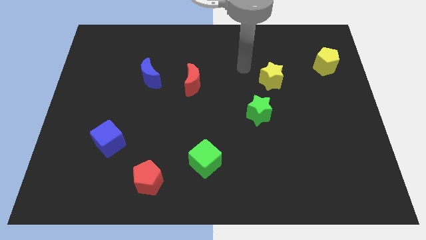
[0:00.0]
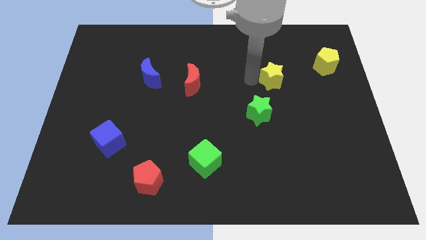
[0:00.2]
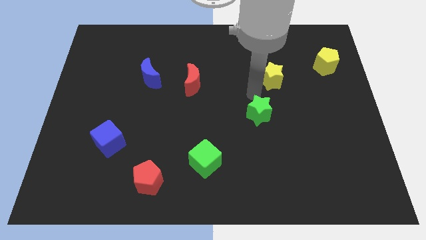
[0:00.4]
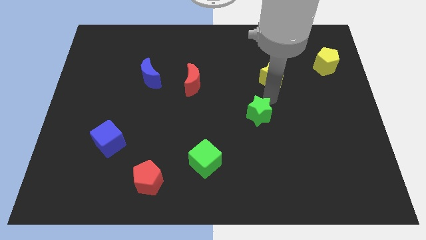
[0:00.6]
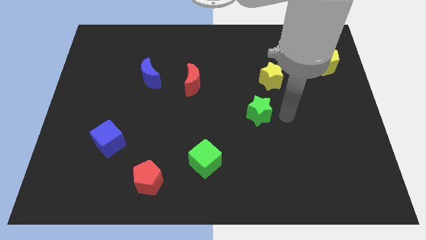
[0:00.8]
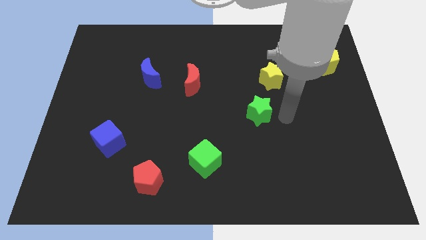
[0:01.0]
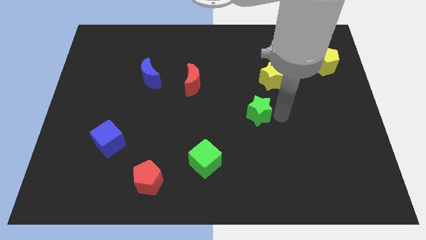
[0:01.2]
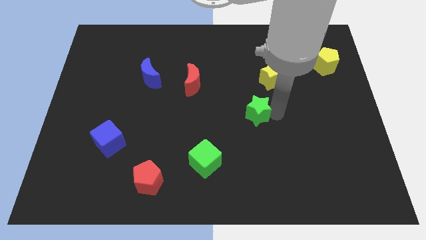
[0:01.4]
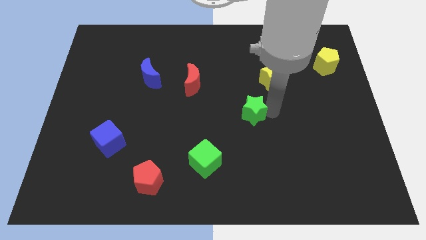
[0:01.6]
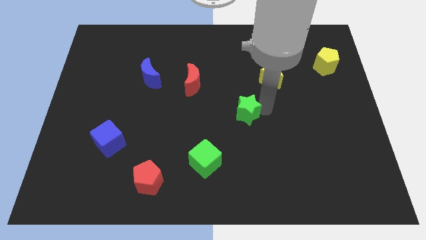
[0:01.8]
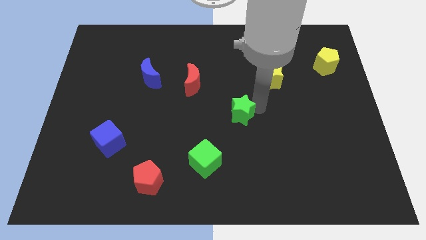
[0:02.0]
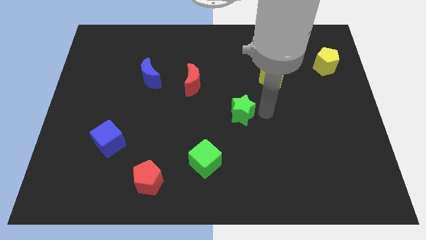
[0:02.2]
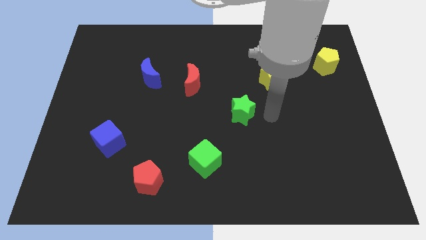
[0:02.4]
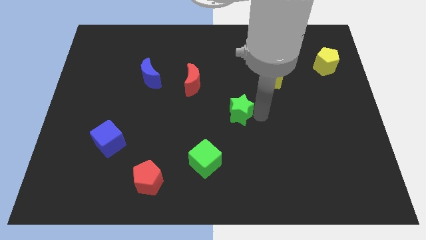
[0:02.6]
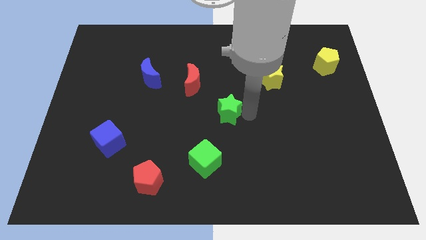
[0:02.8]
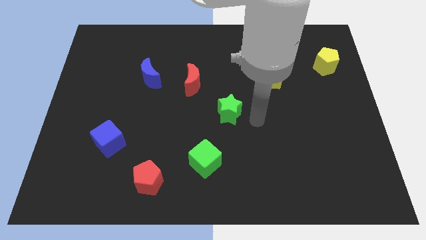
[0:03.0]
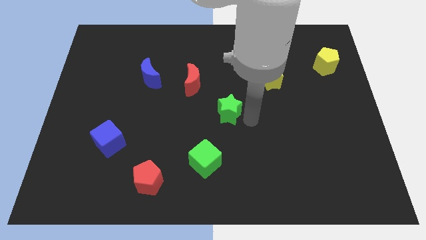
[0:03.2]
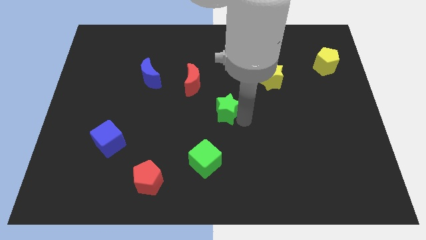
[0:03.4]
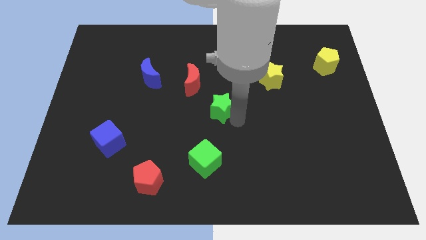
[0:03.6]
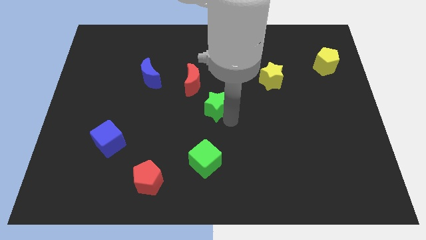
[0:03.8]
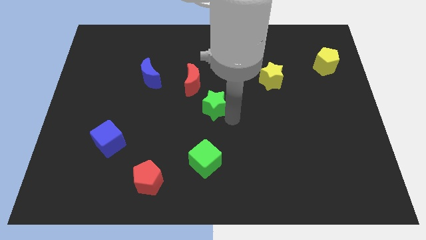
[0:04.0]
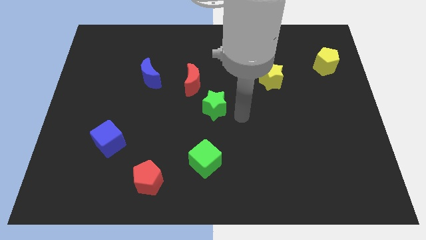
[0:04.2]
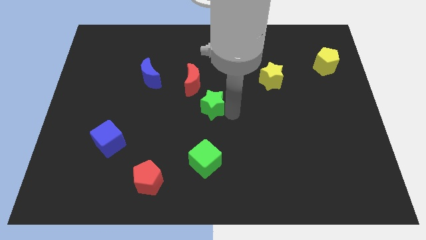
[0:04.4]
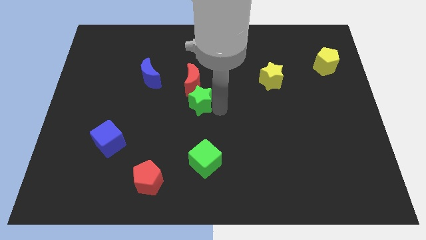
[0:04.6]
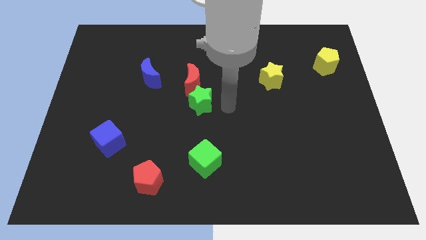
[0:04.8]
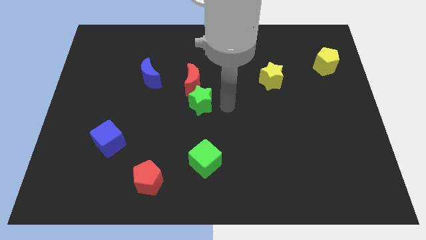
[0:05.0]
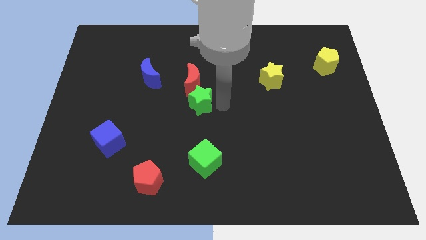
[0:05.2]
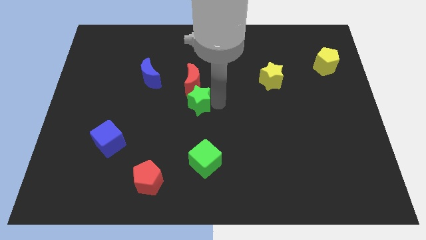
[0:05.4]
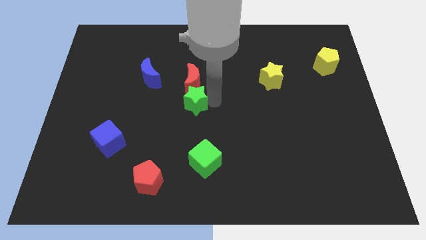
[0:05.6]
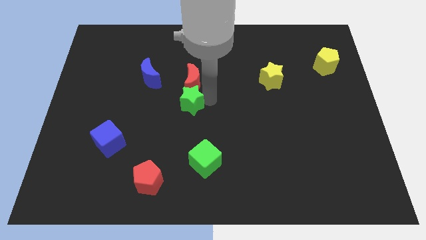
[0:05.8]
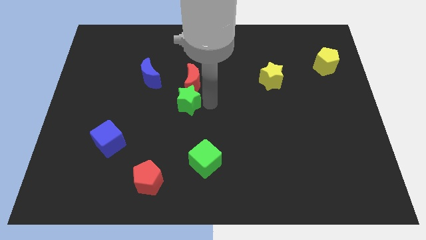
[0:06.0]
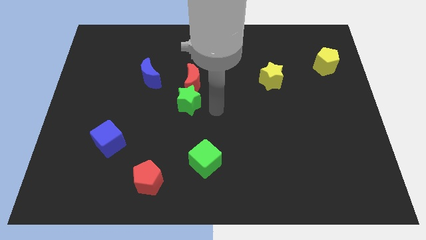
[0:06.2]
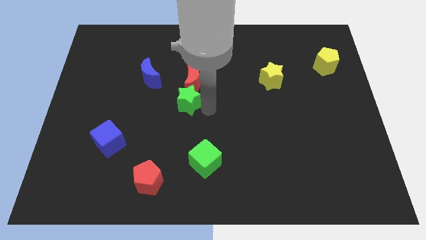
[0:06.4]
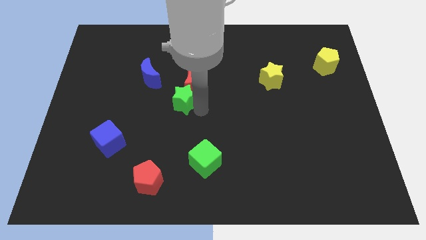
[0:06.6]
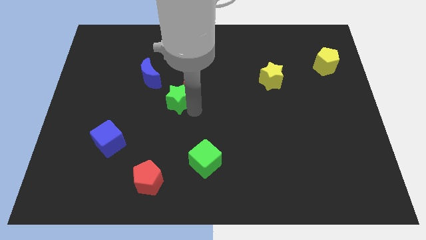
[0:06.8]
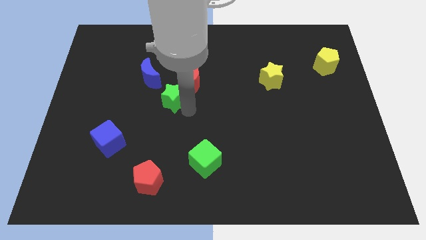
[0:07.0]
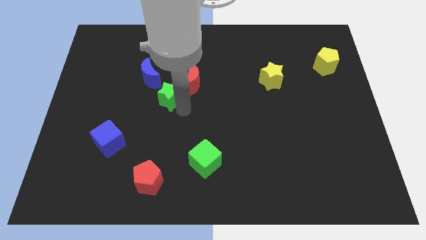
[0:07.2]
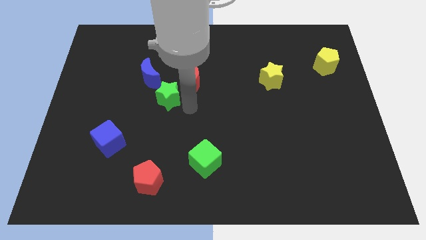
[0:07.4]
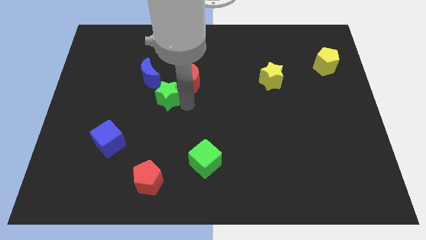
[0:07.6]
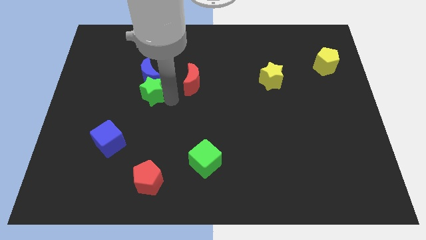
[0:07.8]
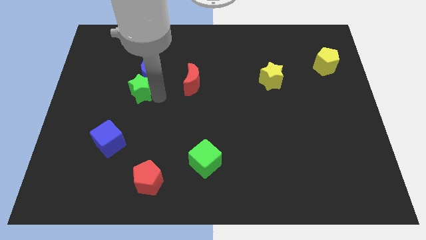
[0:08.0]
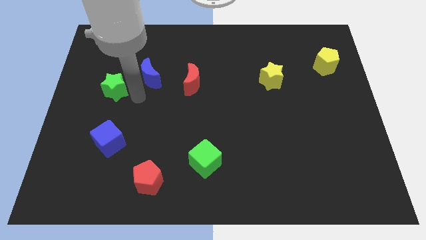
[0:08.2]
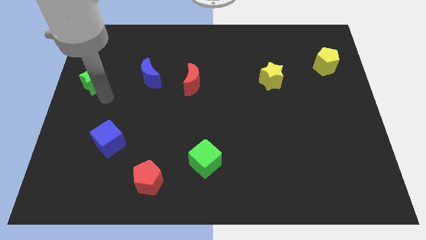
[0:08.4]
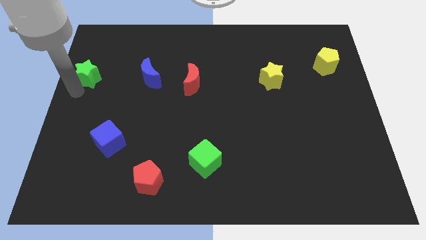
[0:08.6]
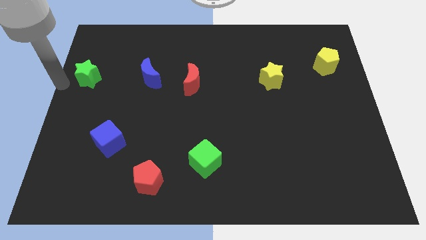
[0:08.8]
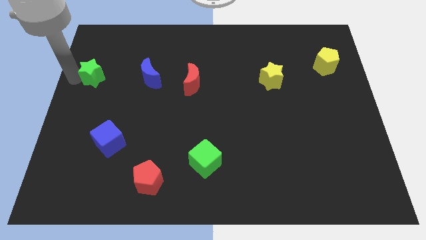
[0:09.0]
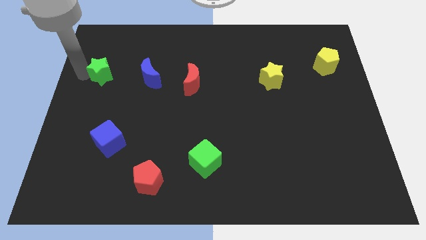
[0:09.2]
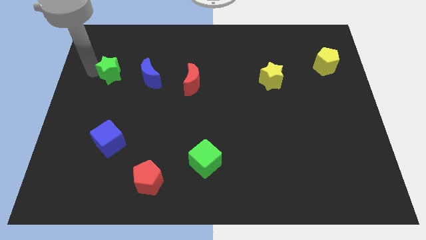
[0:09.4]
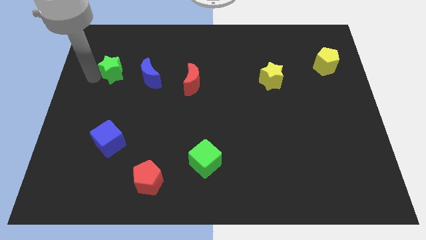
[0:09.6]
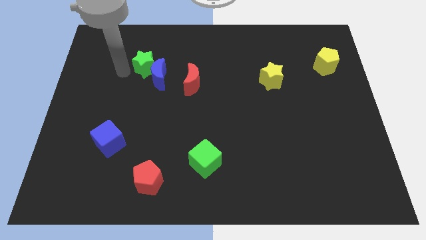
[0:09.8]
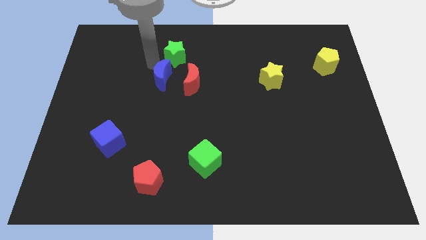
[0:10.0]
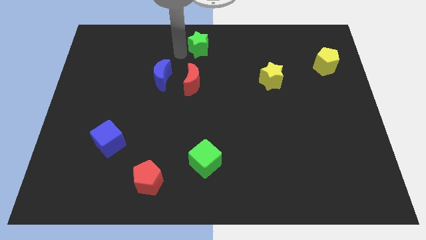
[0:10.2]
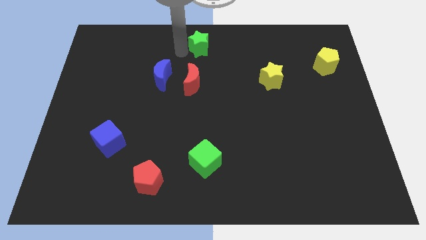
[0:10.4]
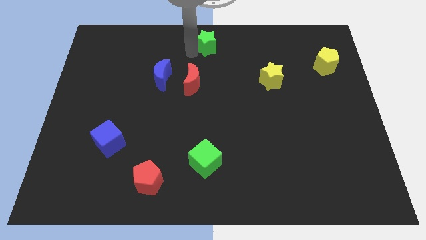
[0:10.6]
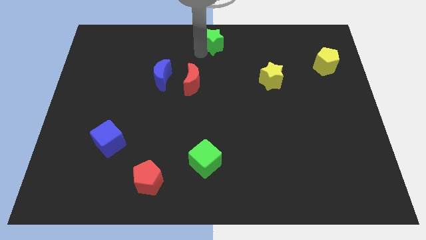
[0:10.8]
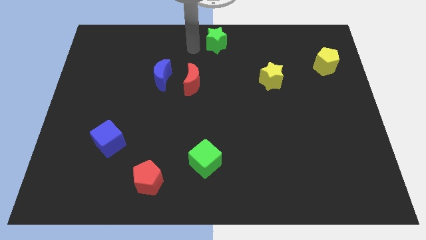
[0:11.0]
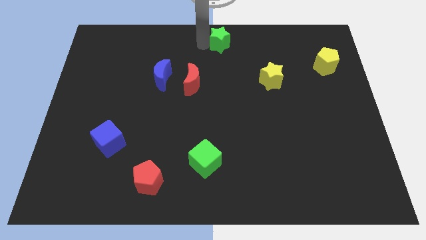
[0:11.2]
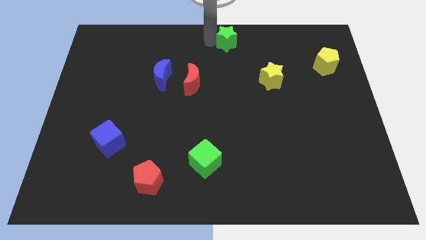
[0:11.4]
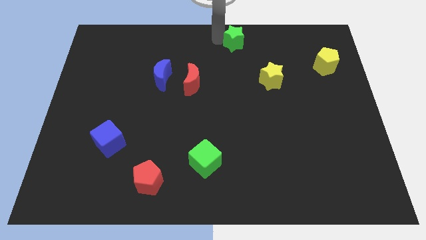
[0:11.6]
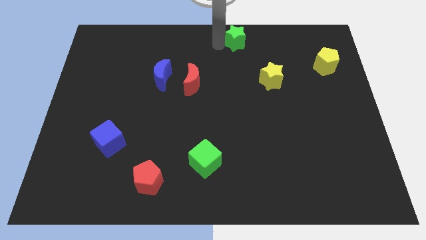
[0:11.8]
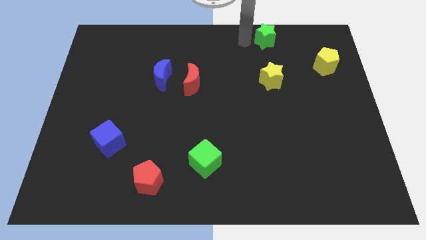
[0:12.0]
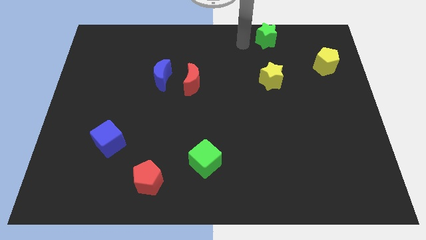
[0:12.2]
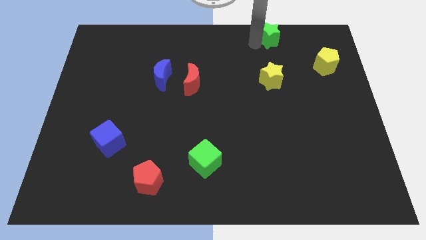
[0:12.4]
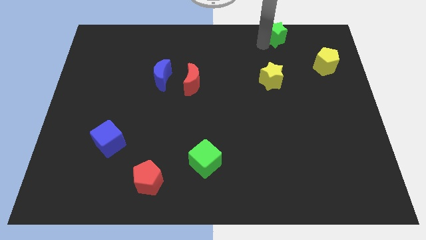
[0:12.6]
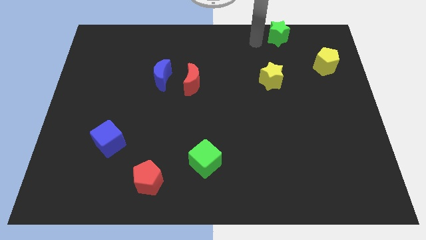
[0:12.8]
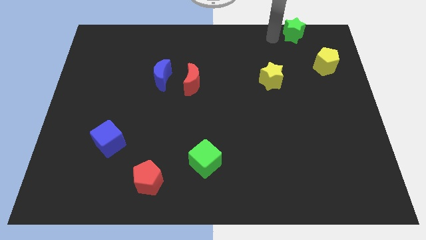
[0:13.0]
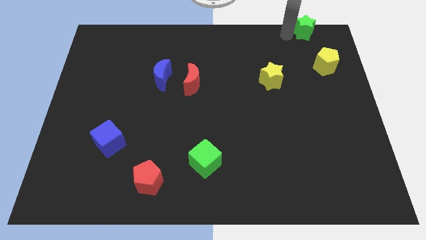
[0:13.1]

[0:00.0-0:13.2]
put the green star to the upper right corner

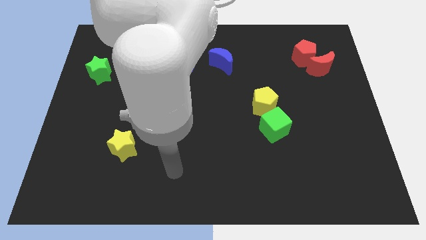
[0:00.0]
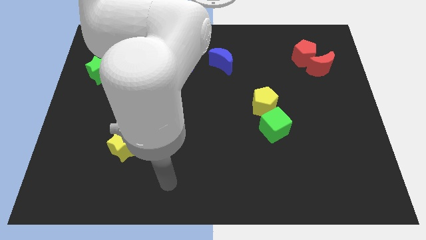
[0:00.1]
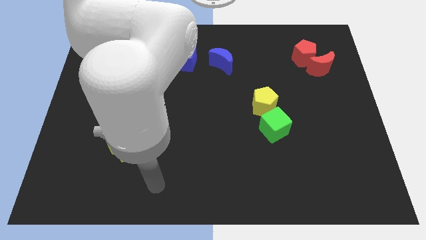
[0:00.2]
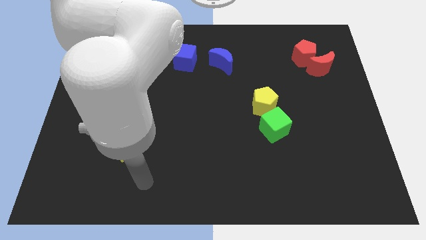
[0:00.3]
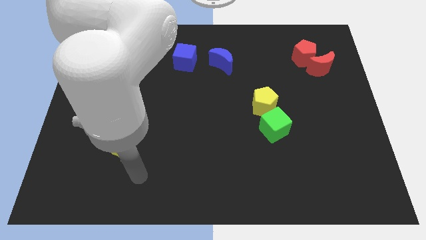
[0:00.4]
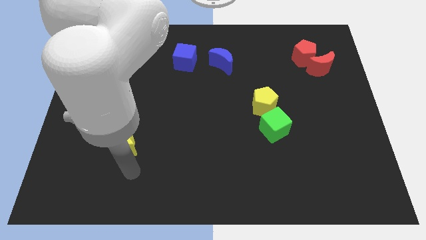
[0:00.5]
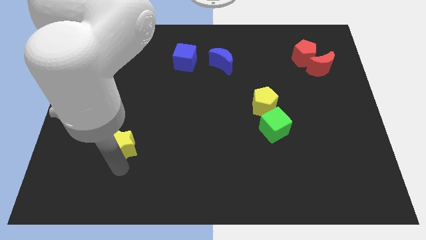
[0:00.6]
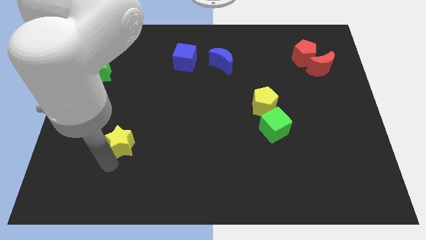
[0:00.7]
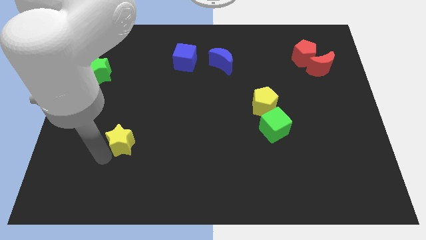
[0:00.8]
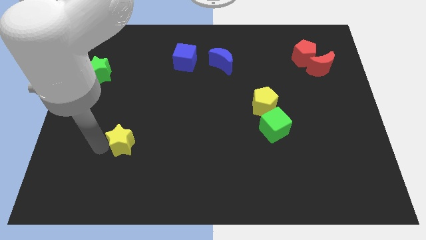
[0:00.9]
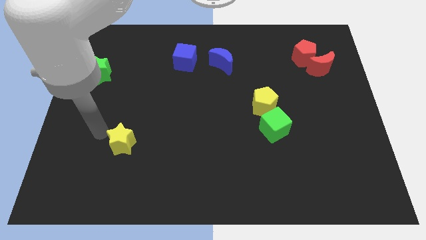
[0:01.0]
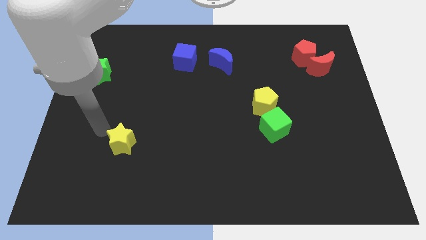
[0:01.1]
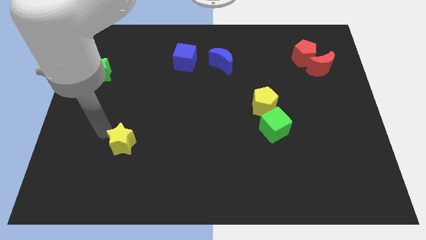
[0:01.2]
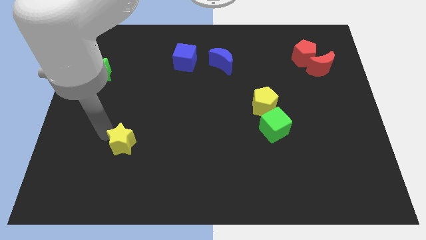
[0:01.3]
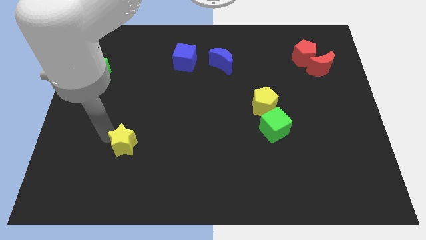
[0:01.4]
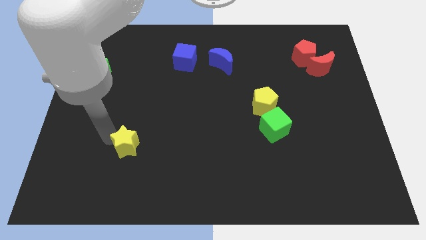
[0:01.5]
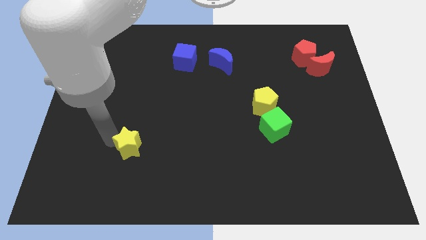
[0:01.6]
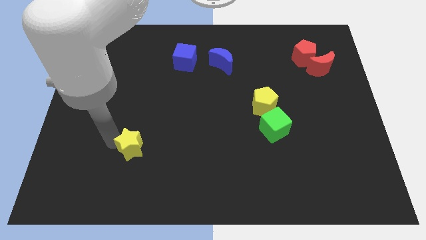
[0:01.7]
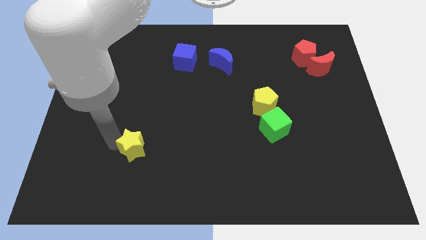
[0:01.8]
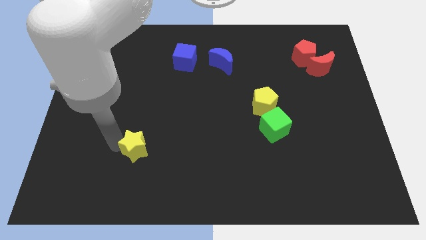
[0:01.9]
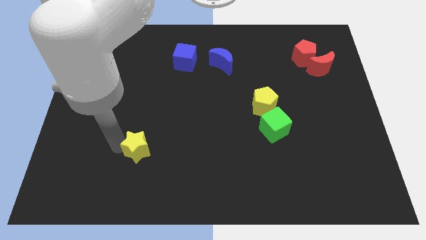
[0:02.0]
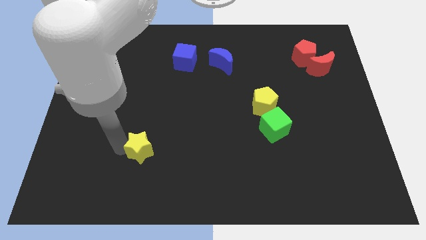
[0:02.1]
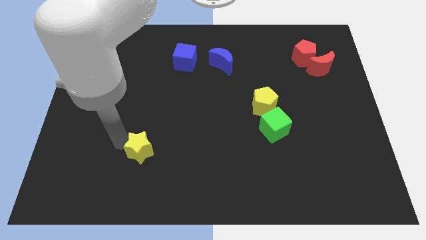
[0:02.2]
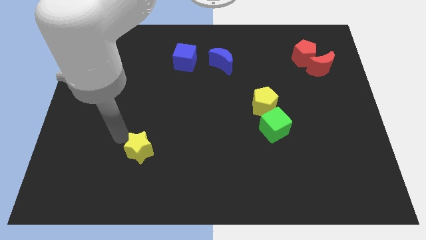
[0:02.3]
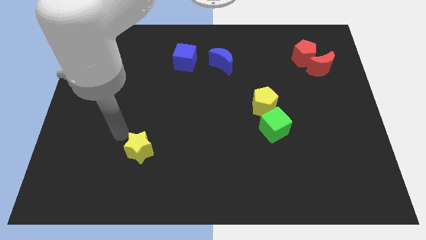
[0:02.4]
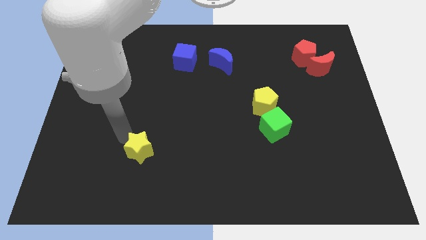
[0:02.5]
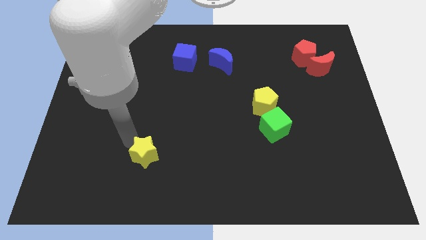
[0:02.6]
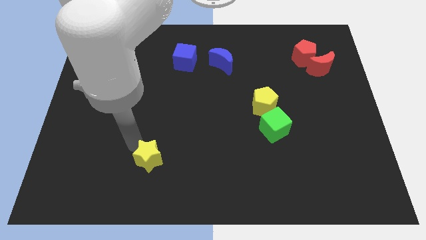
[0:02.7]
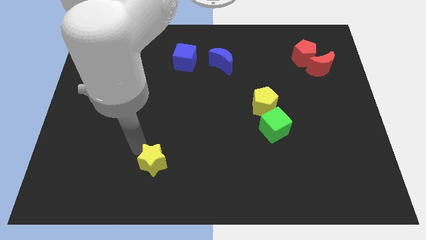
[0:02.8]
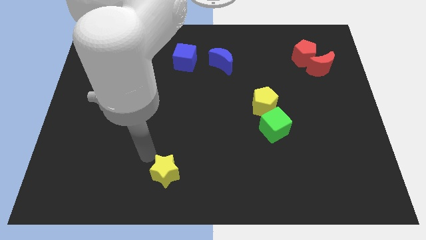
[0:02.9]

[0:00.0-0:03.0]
put the yellow star to the bottom side
